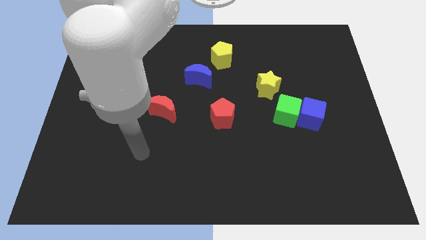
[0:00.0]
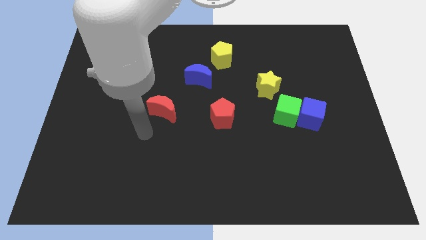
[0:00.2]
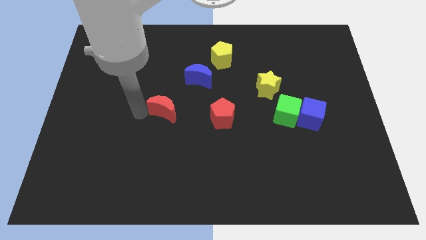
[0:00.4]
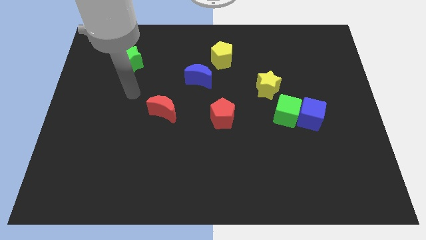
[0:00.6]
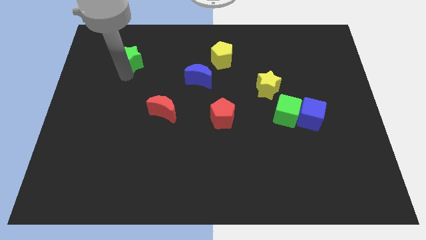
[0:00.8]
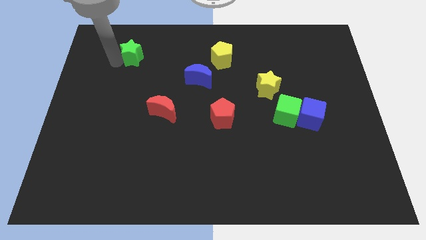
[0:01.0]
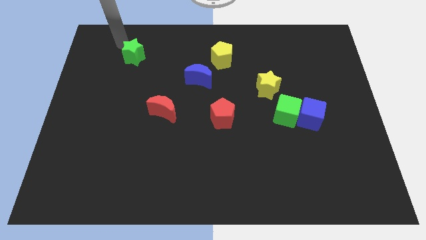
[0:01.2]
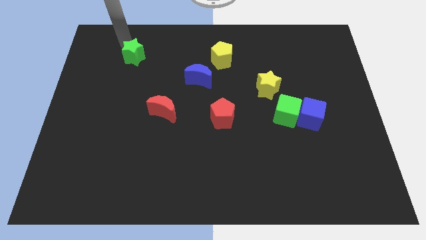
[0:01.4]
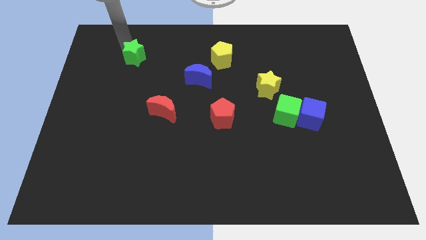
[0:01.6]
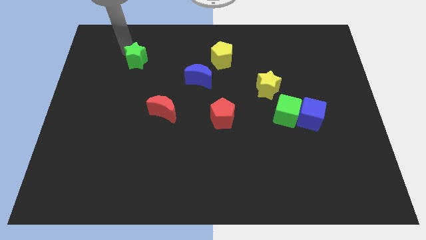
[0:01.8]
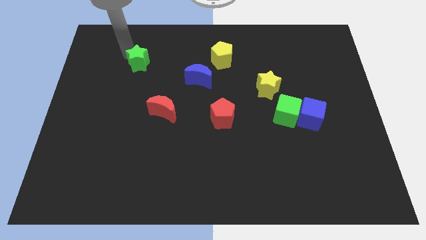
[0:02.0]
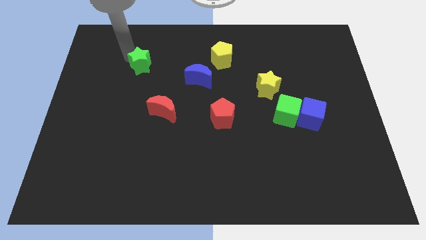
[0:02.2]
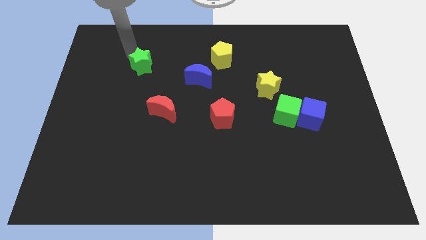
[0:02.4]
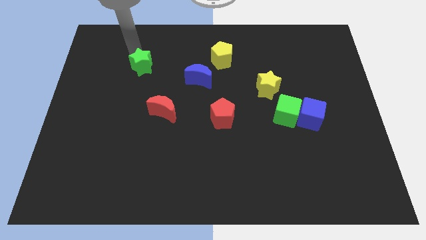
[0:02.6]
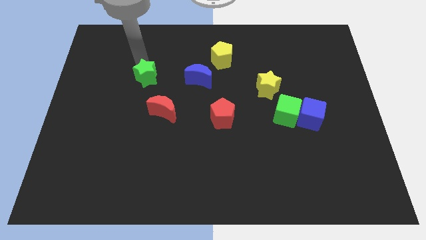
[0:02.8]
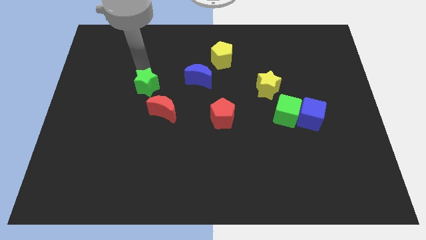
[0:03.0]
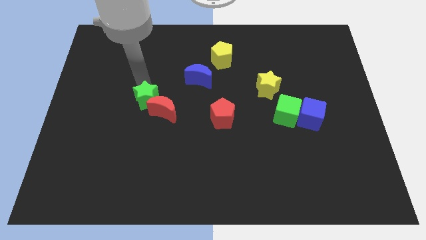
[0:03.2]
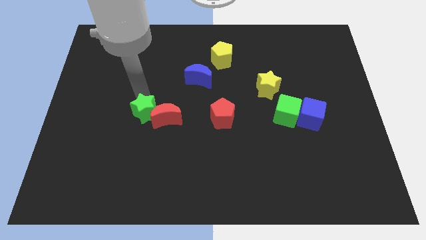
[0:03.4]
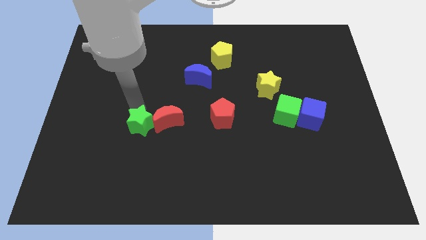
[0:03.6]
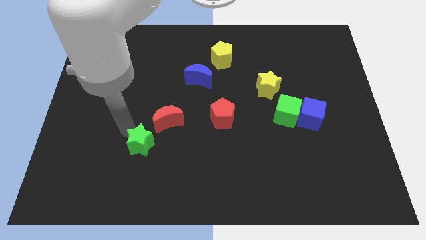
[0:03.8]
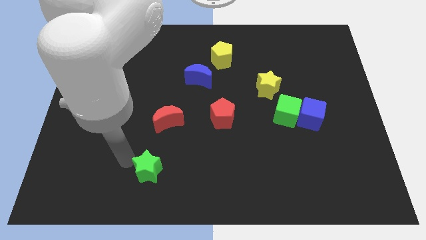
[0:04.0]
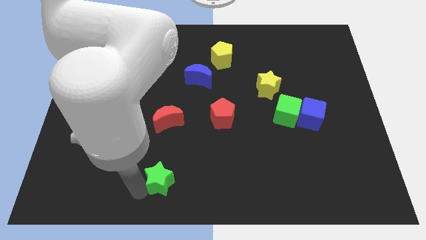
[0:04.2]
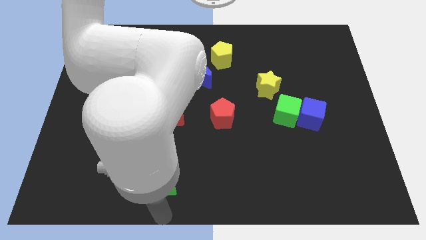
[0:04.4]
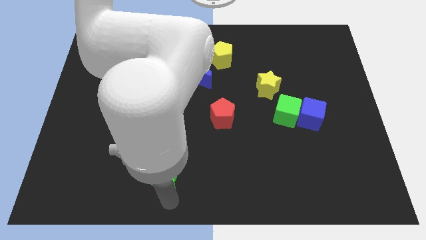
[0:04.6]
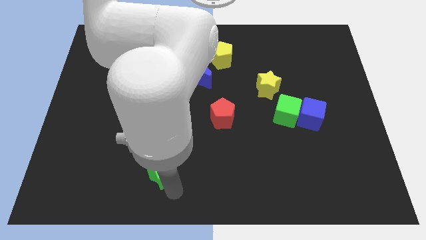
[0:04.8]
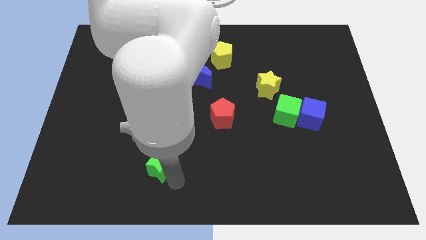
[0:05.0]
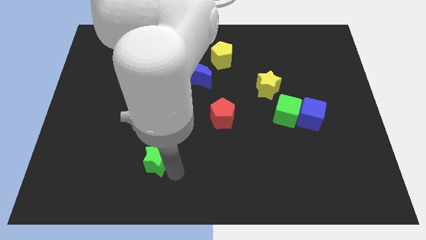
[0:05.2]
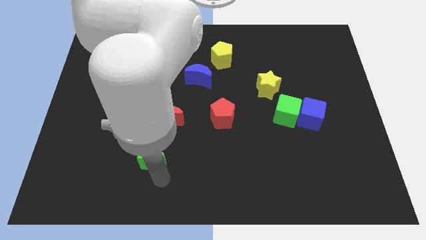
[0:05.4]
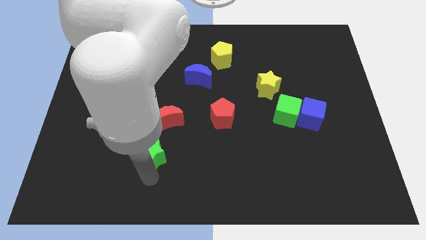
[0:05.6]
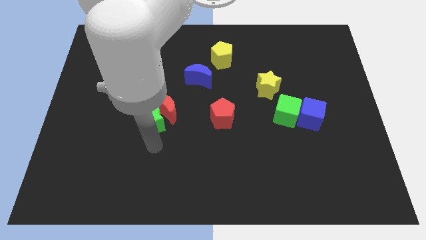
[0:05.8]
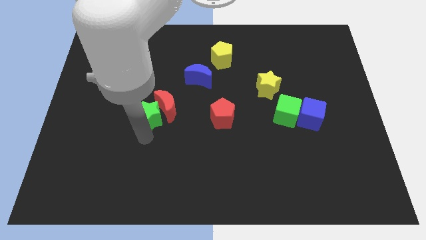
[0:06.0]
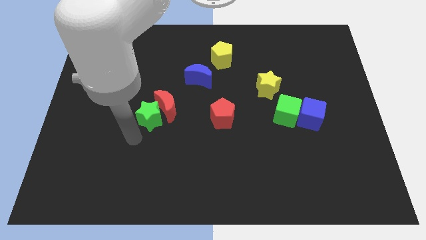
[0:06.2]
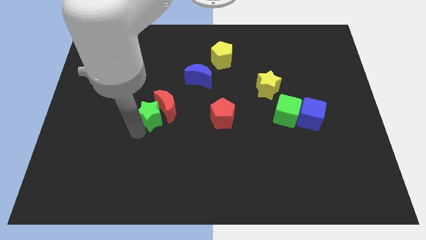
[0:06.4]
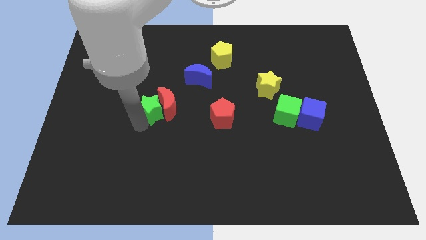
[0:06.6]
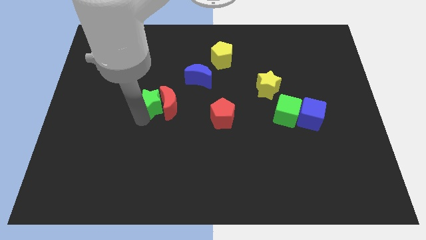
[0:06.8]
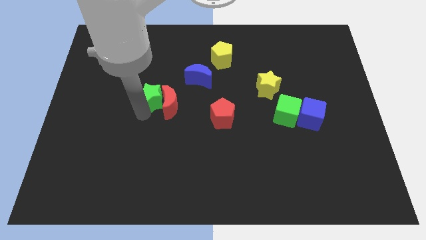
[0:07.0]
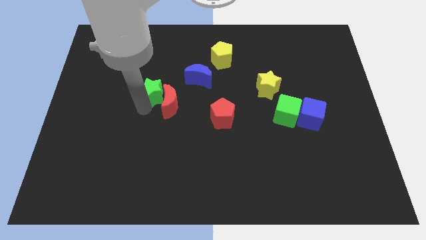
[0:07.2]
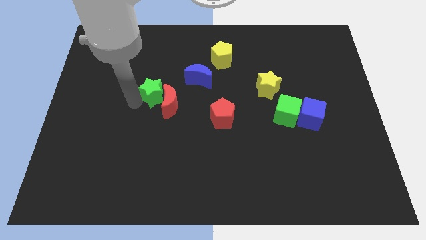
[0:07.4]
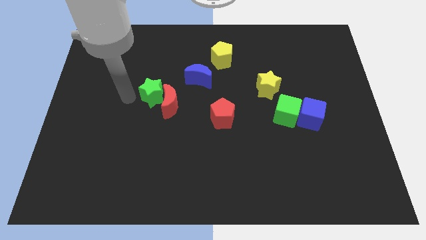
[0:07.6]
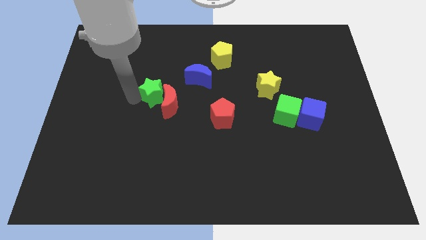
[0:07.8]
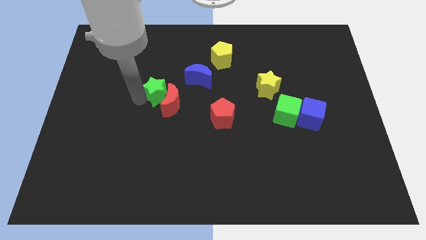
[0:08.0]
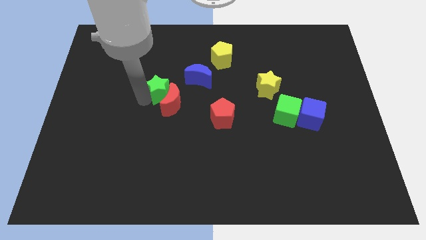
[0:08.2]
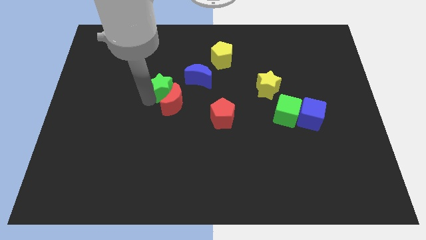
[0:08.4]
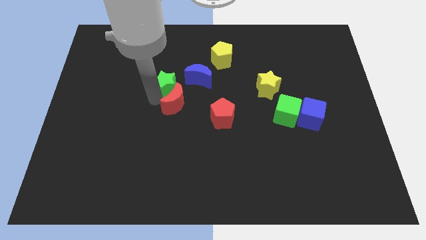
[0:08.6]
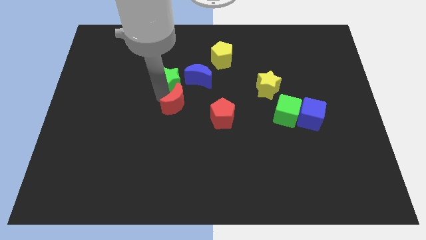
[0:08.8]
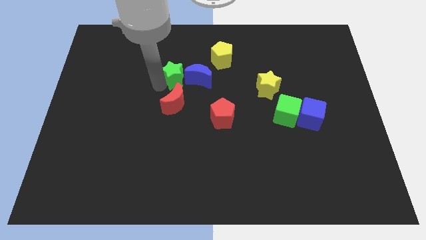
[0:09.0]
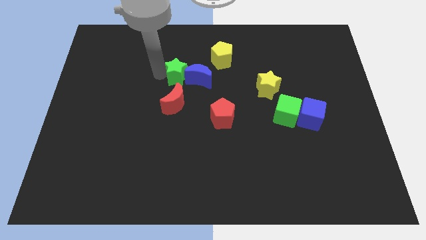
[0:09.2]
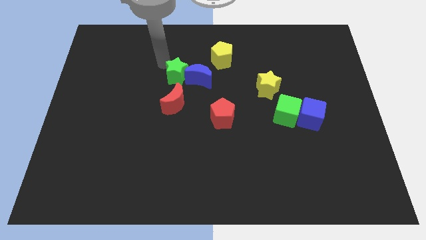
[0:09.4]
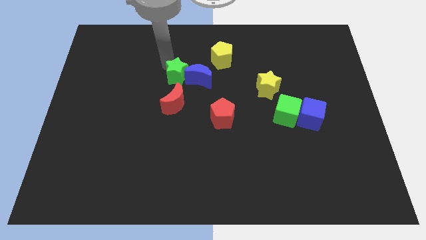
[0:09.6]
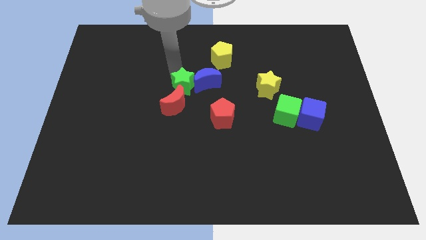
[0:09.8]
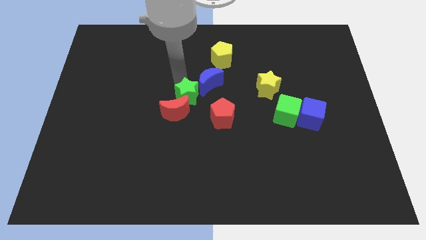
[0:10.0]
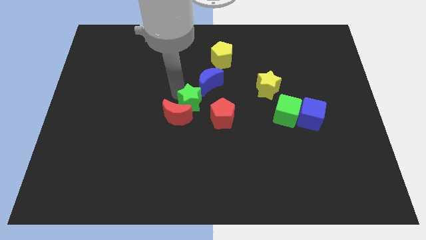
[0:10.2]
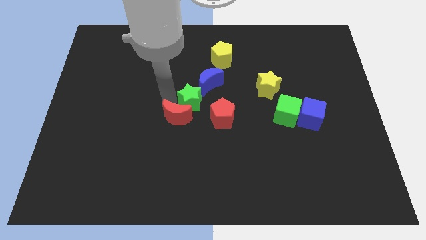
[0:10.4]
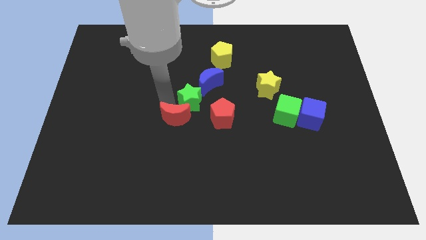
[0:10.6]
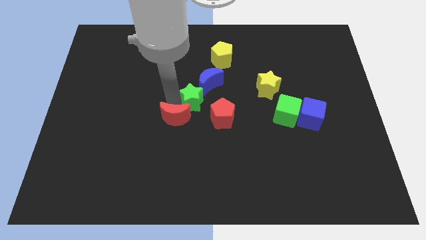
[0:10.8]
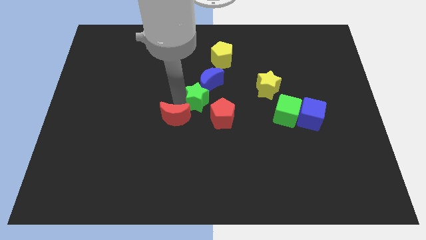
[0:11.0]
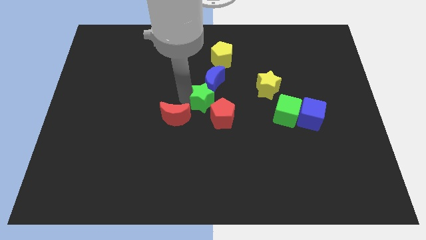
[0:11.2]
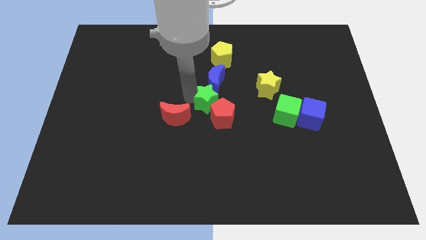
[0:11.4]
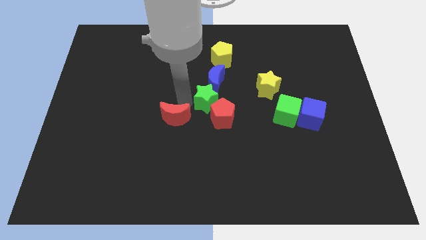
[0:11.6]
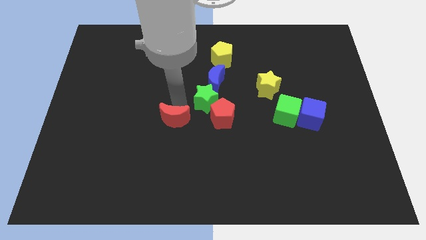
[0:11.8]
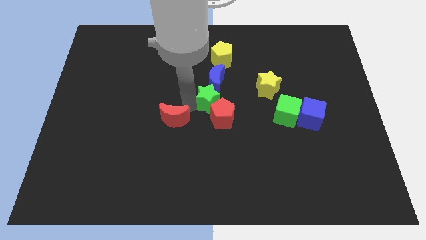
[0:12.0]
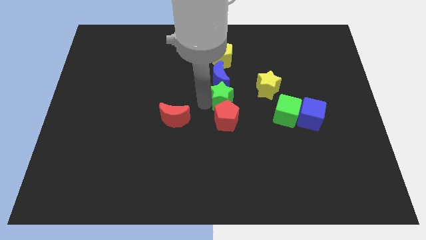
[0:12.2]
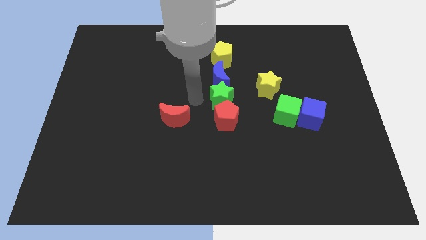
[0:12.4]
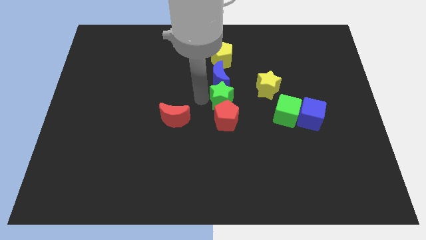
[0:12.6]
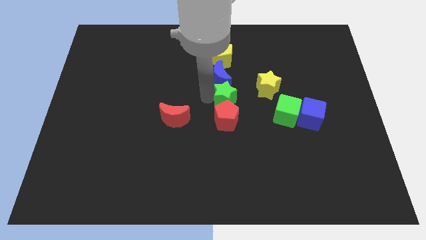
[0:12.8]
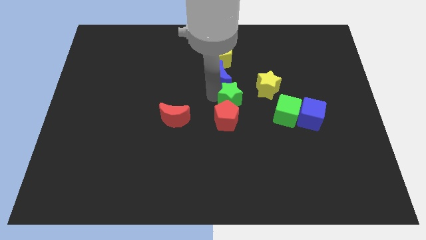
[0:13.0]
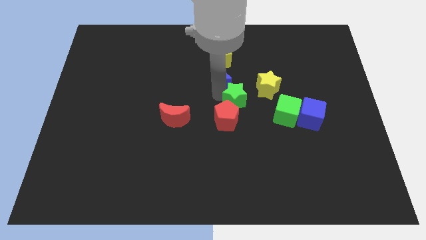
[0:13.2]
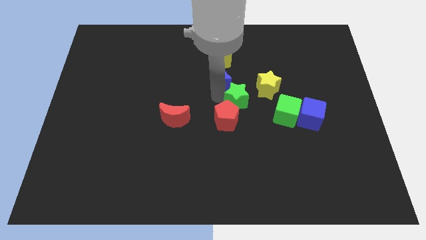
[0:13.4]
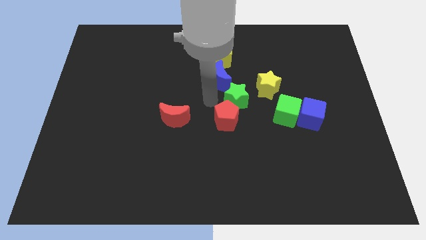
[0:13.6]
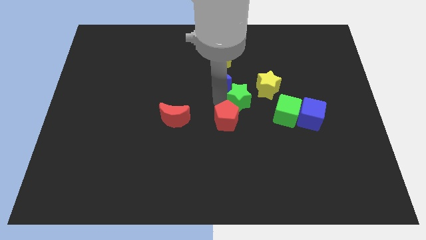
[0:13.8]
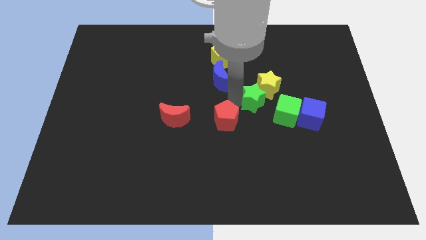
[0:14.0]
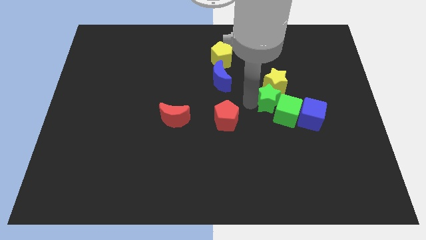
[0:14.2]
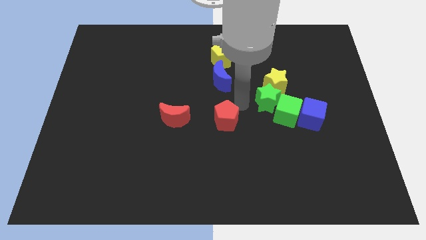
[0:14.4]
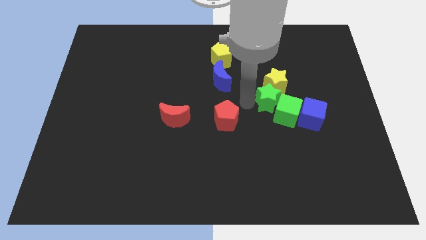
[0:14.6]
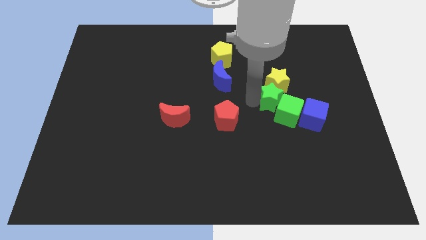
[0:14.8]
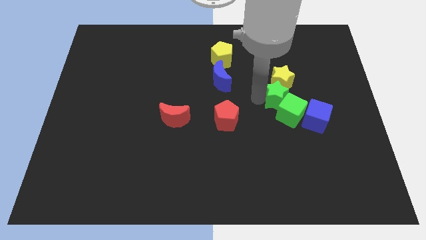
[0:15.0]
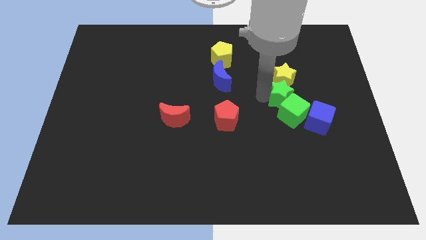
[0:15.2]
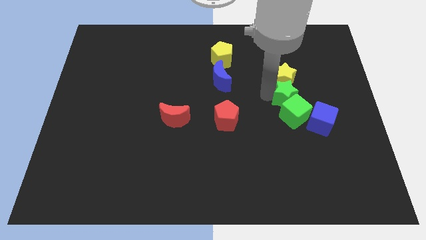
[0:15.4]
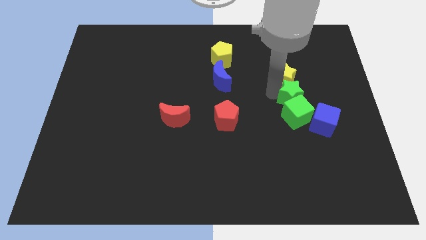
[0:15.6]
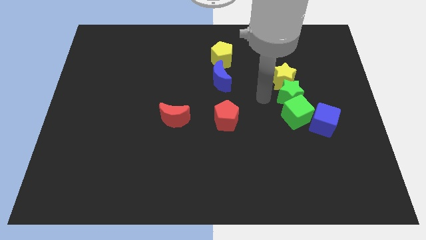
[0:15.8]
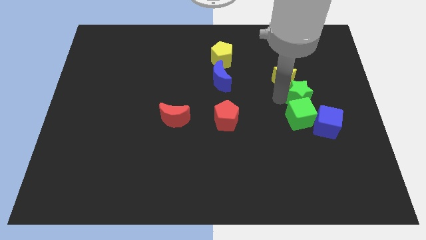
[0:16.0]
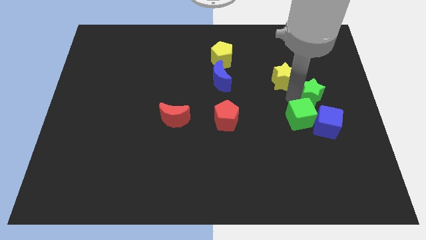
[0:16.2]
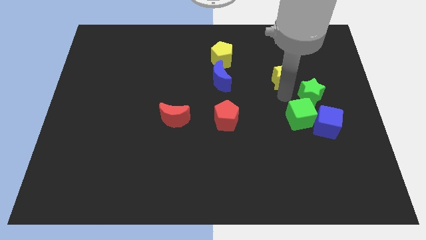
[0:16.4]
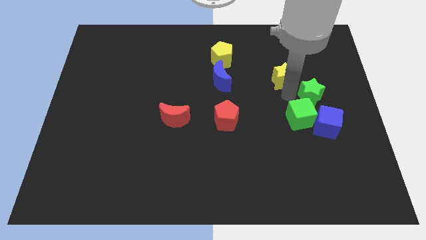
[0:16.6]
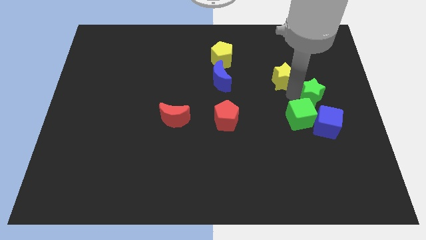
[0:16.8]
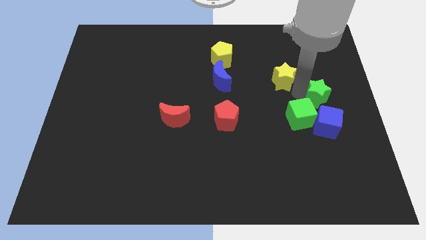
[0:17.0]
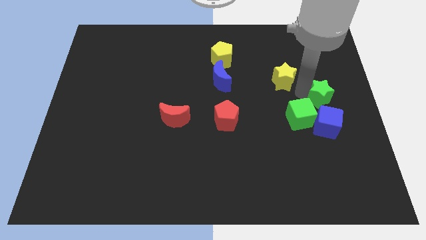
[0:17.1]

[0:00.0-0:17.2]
slide the green star to the right side
